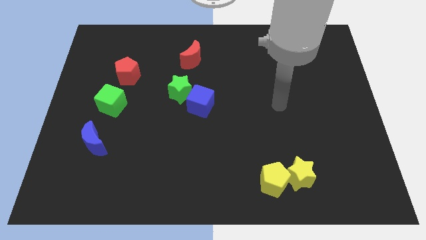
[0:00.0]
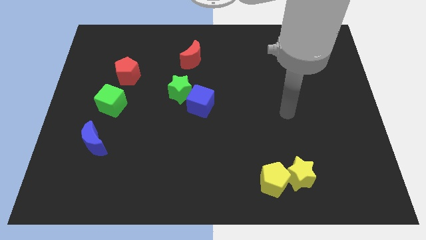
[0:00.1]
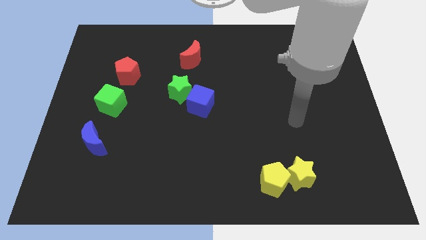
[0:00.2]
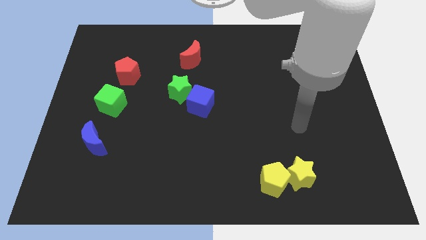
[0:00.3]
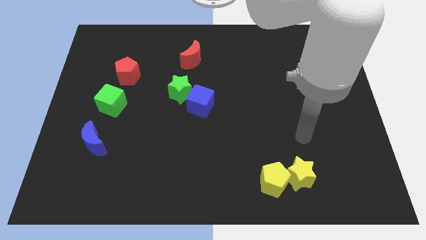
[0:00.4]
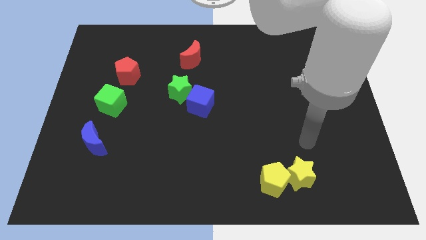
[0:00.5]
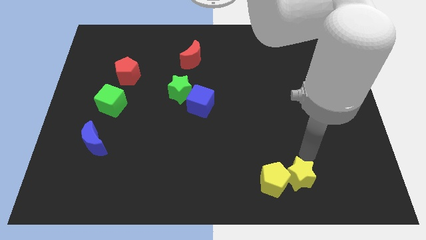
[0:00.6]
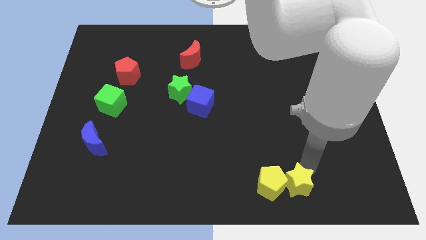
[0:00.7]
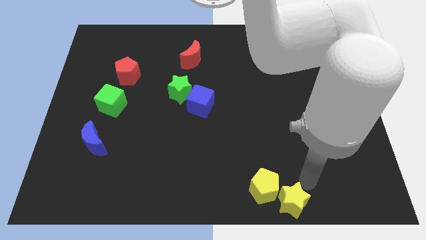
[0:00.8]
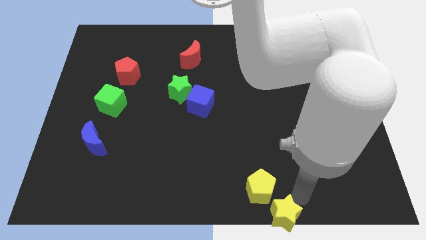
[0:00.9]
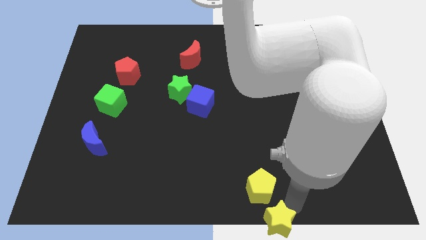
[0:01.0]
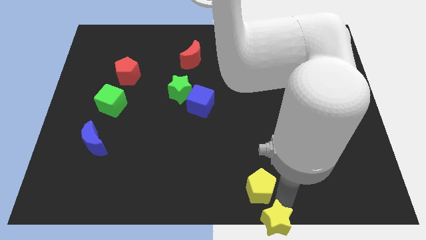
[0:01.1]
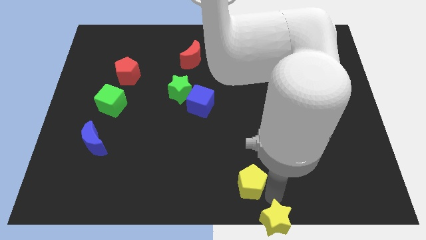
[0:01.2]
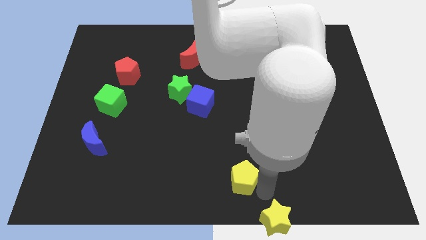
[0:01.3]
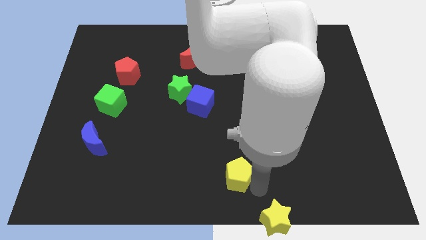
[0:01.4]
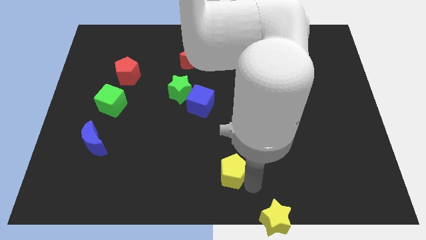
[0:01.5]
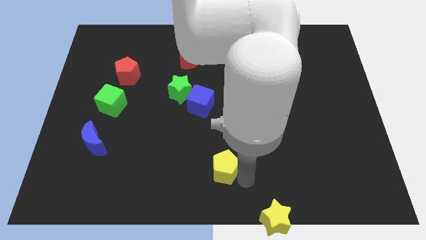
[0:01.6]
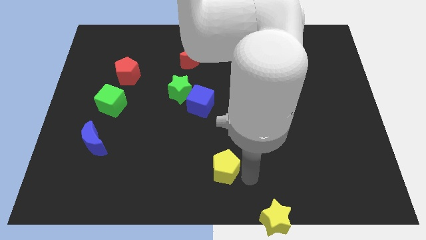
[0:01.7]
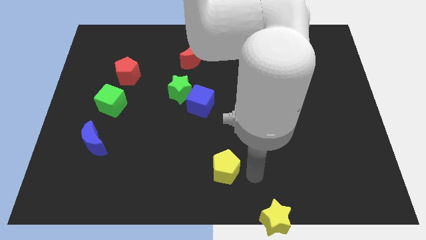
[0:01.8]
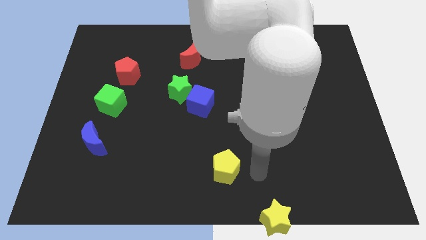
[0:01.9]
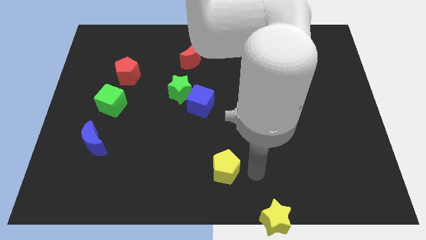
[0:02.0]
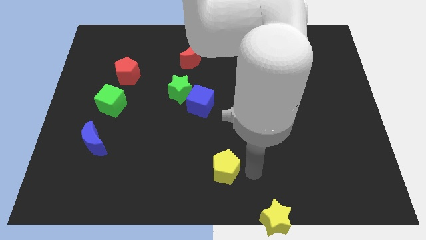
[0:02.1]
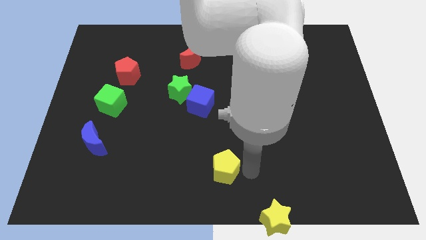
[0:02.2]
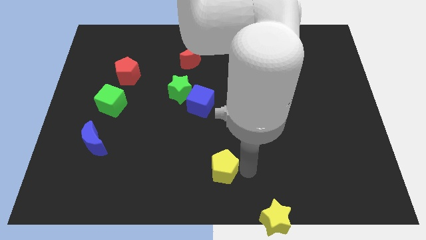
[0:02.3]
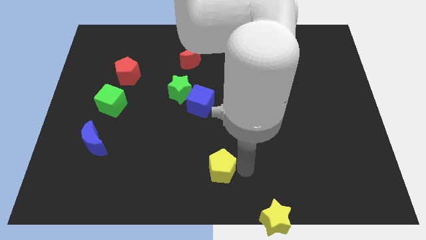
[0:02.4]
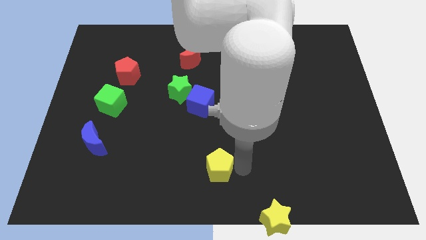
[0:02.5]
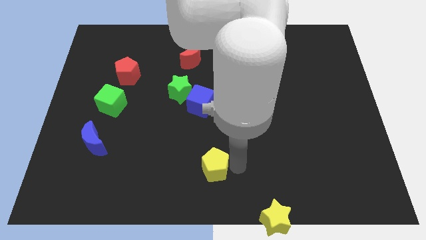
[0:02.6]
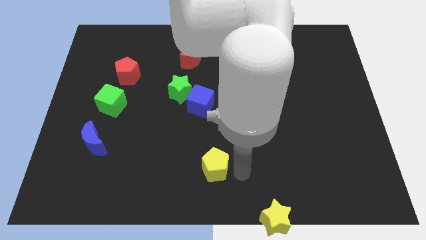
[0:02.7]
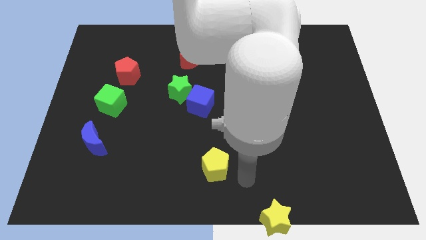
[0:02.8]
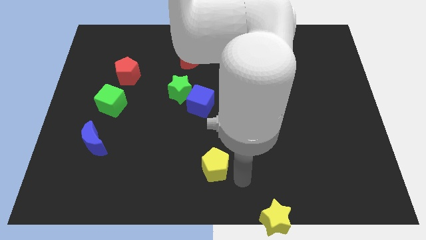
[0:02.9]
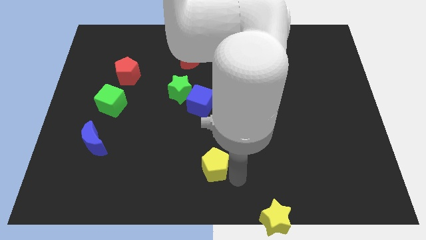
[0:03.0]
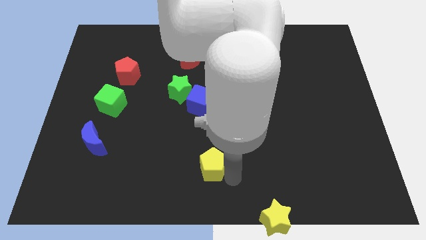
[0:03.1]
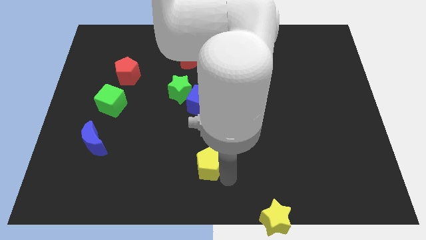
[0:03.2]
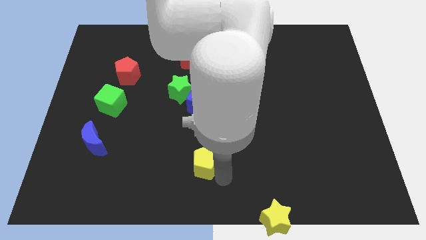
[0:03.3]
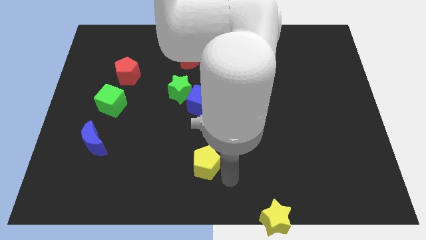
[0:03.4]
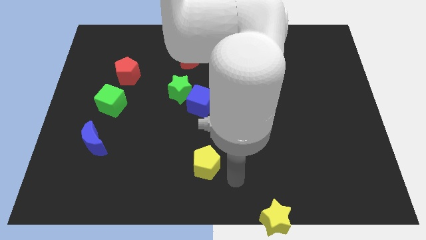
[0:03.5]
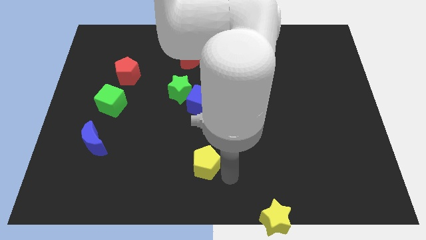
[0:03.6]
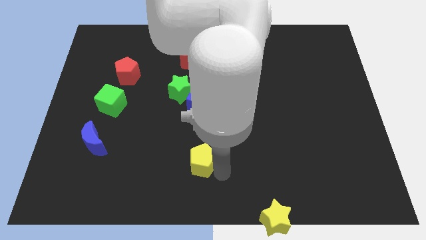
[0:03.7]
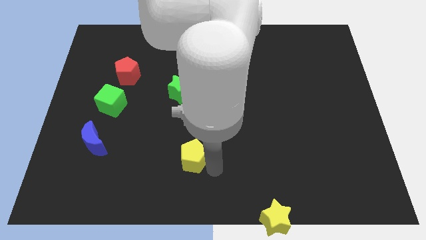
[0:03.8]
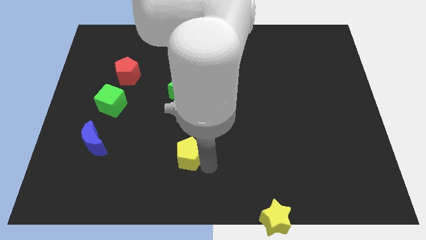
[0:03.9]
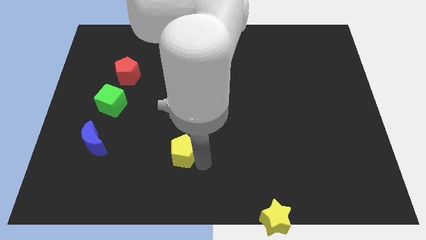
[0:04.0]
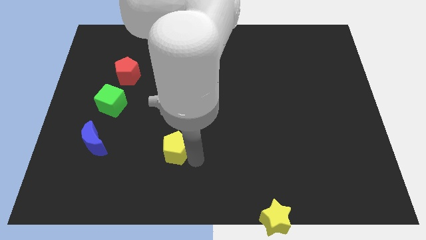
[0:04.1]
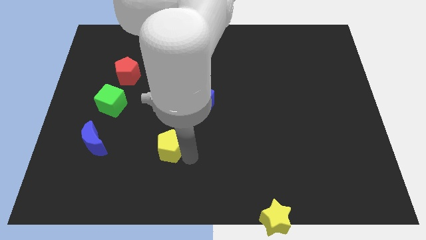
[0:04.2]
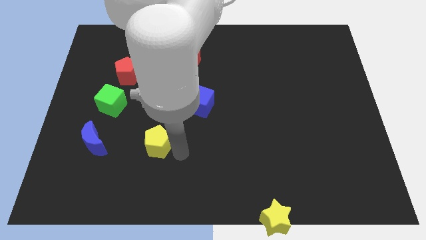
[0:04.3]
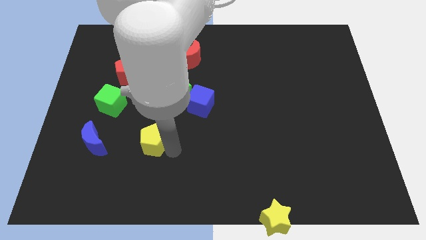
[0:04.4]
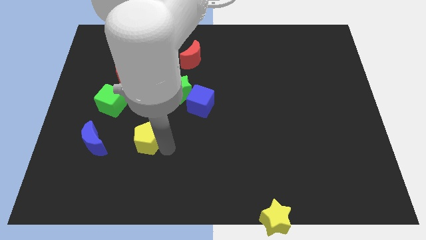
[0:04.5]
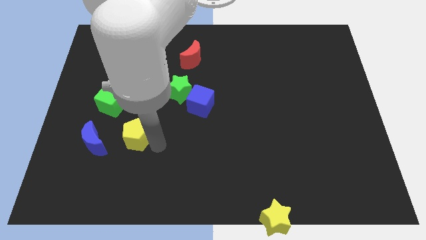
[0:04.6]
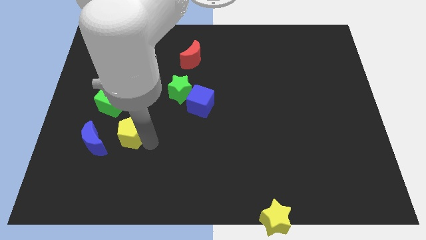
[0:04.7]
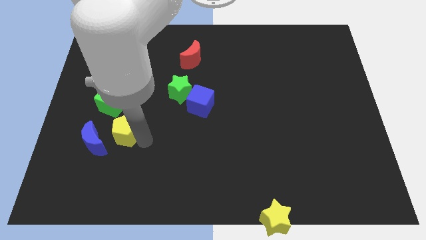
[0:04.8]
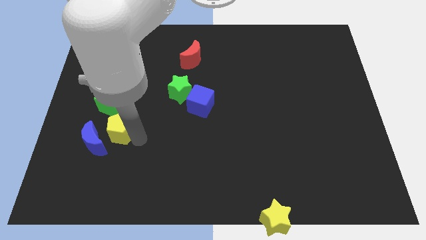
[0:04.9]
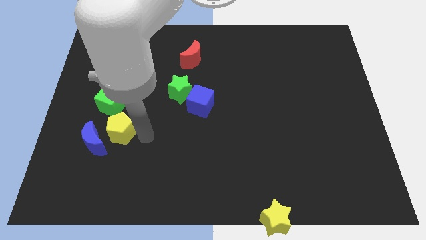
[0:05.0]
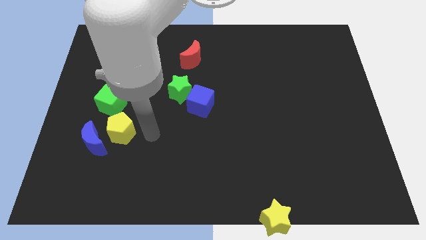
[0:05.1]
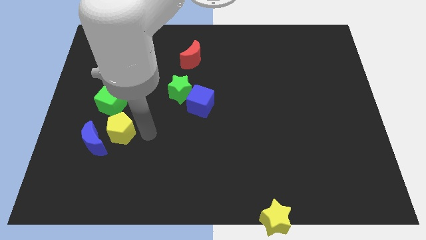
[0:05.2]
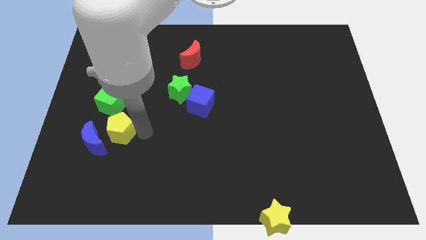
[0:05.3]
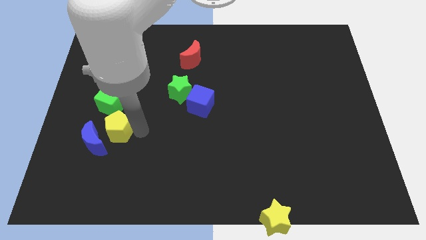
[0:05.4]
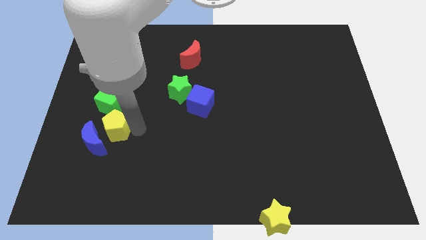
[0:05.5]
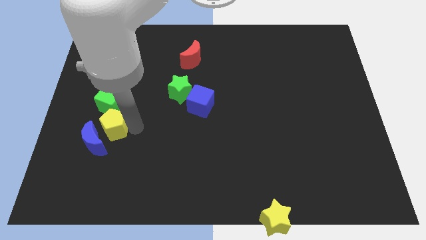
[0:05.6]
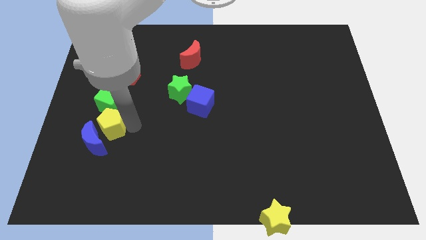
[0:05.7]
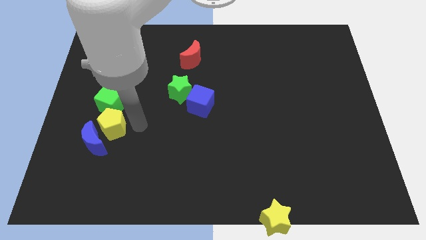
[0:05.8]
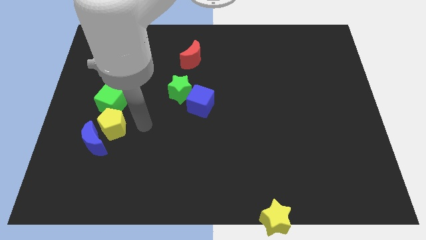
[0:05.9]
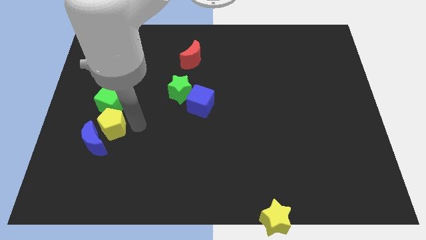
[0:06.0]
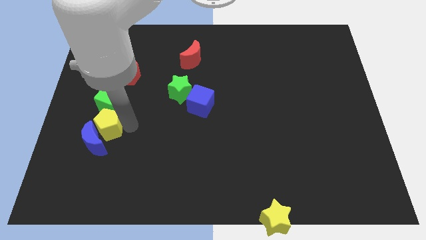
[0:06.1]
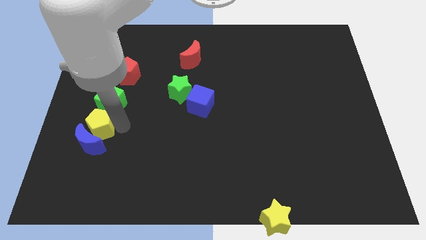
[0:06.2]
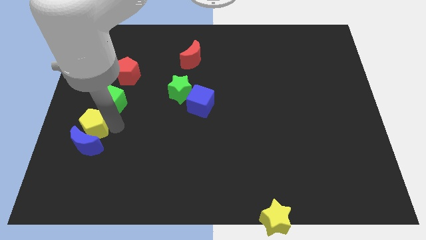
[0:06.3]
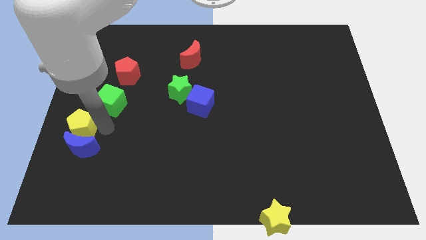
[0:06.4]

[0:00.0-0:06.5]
push the yellow pentagon to the left side of the board
